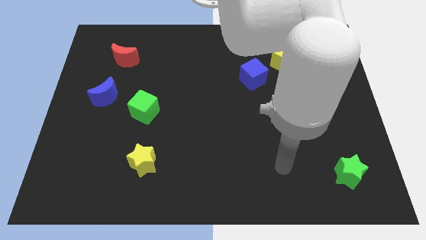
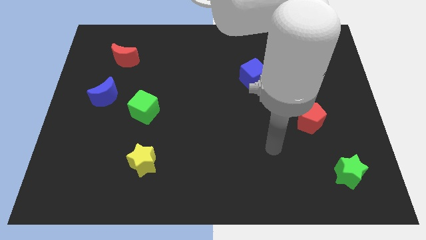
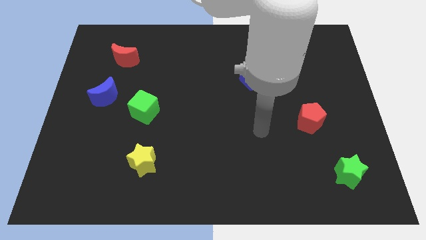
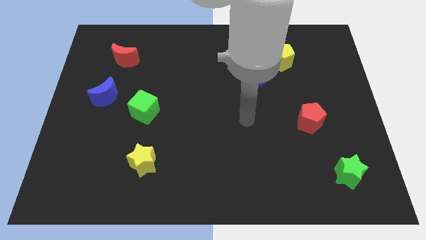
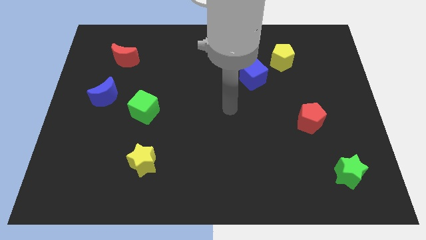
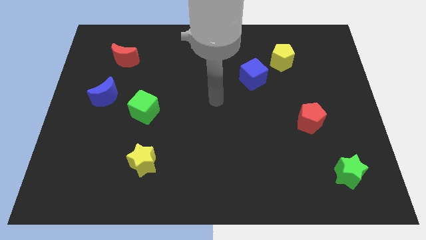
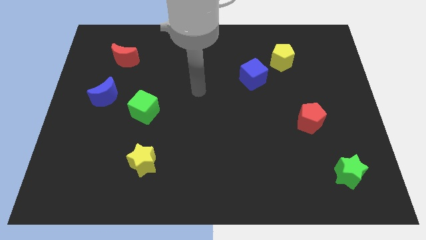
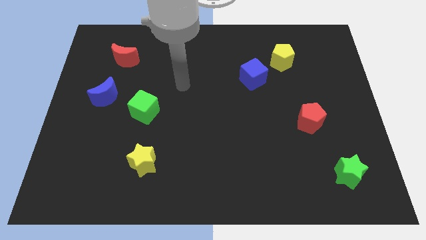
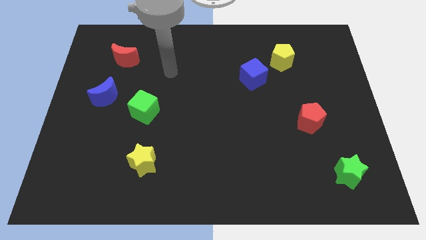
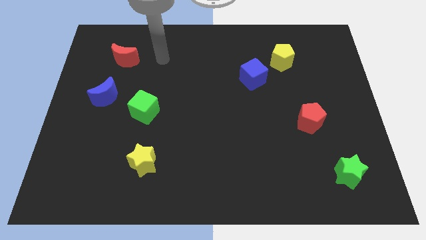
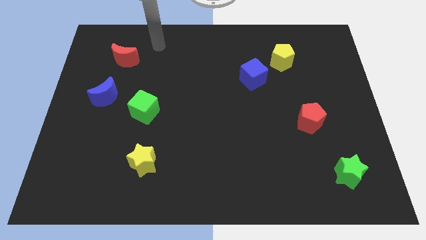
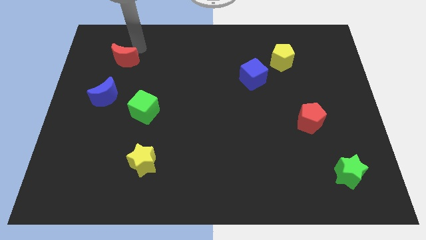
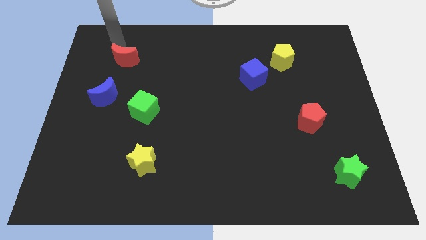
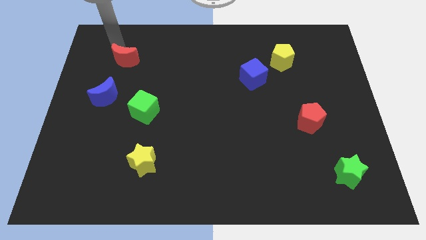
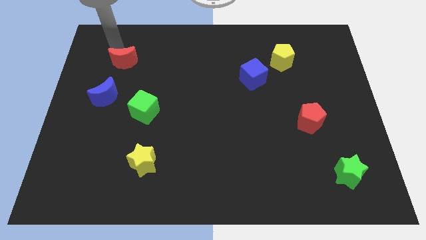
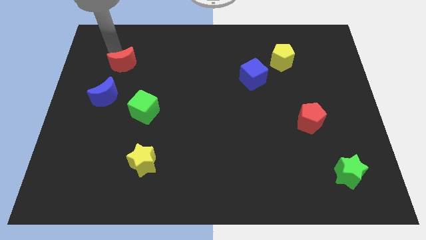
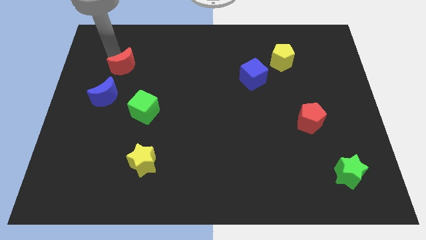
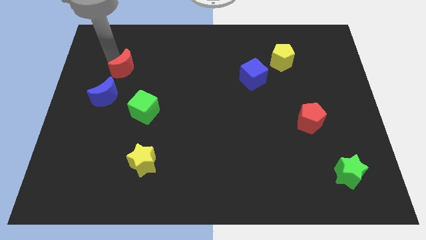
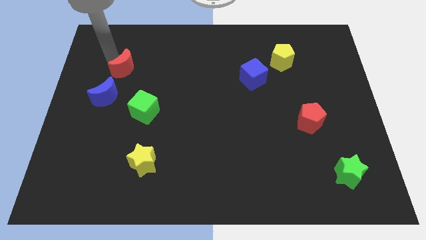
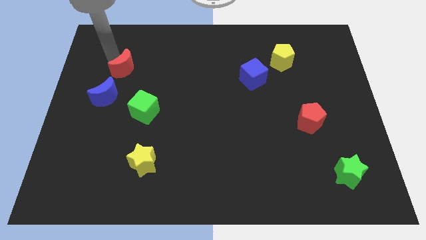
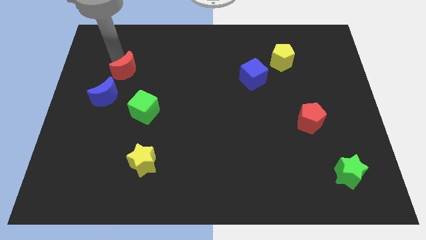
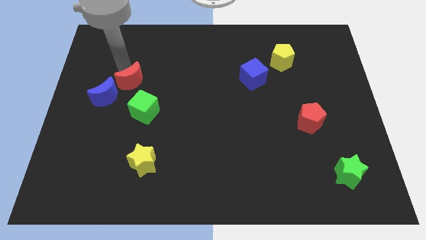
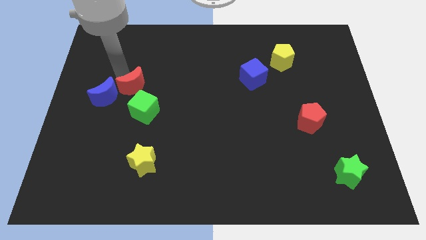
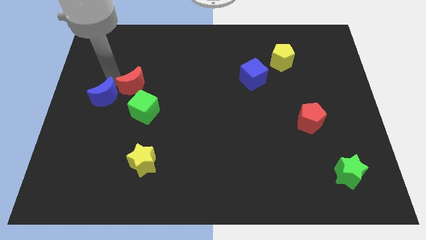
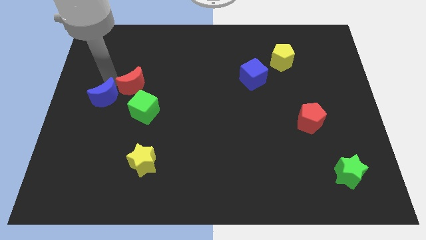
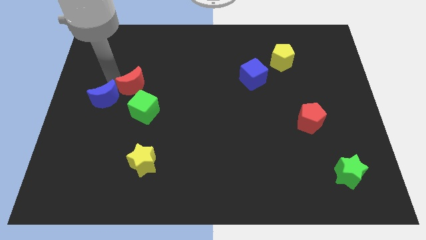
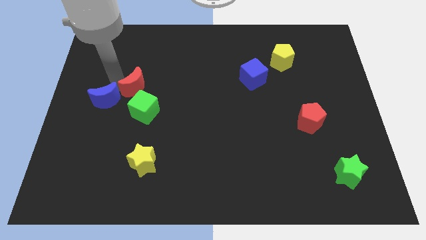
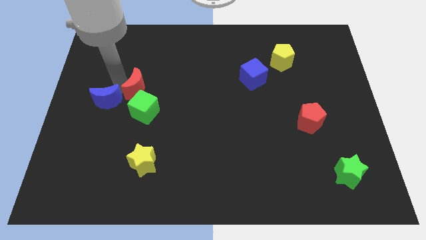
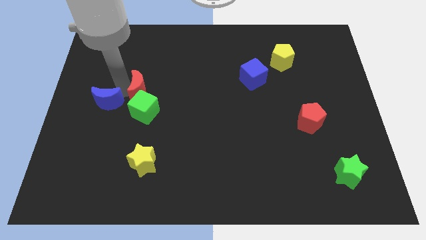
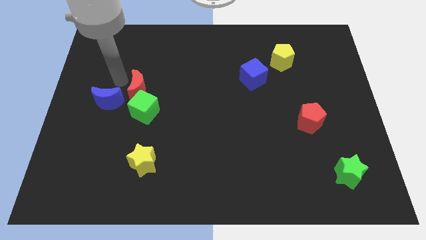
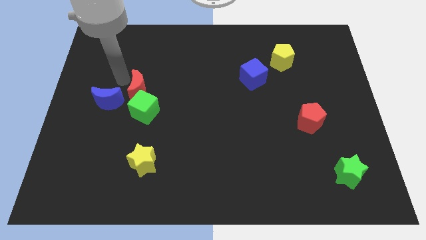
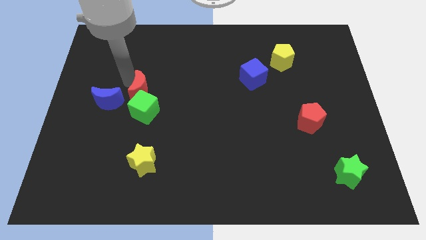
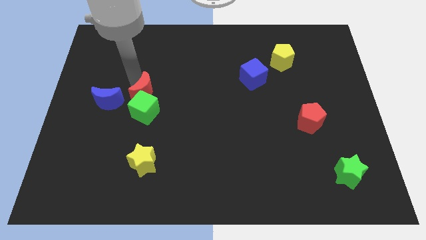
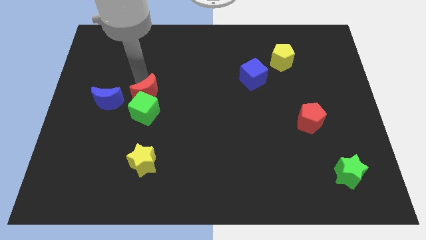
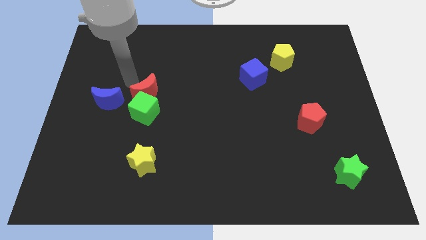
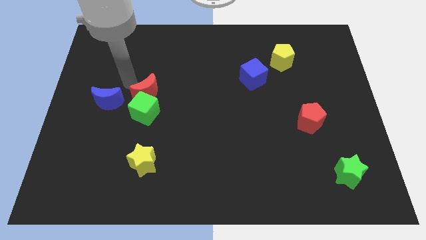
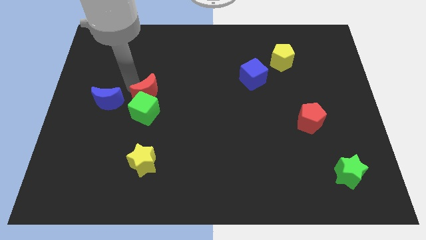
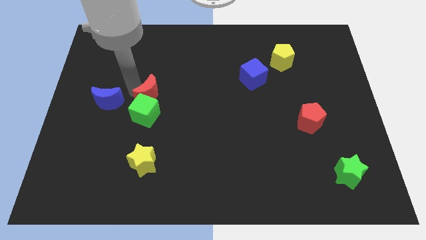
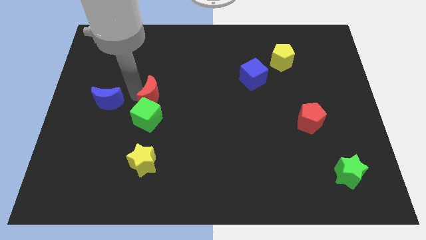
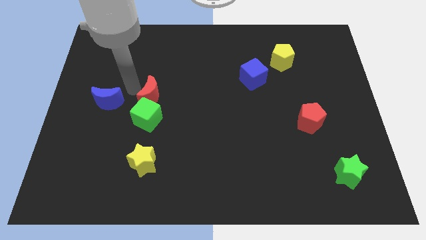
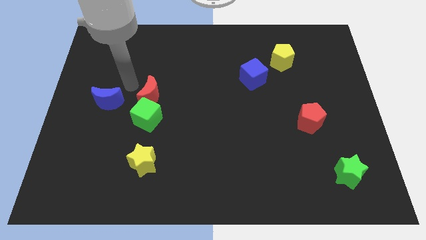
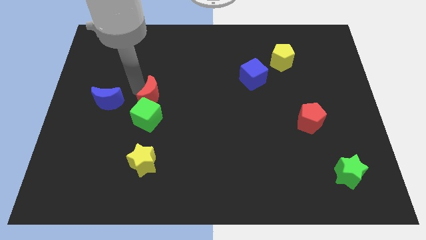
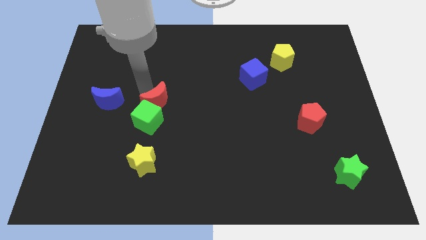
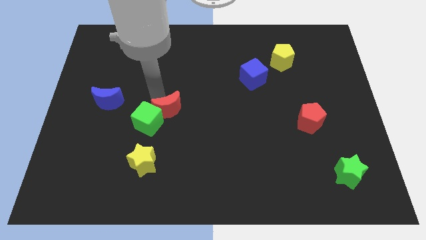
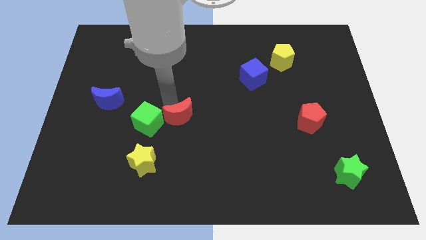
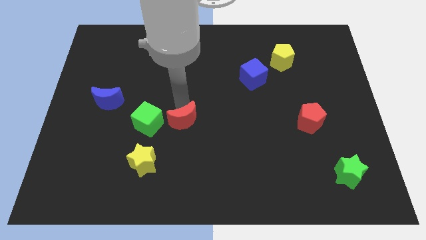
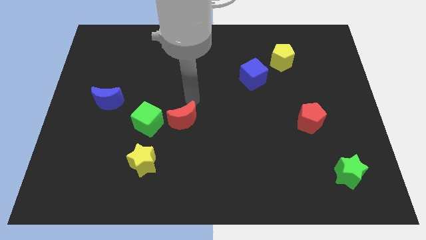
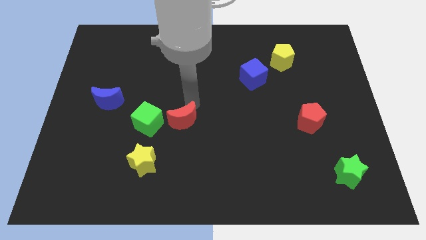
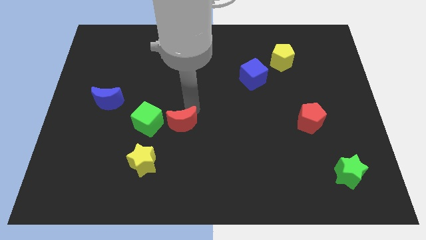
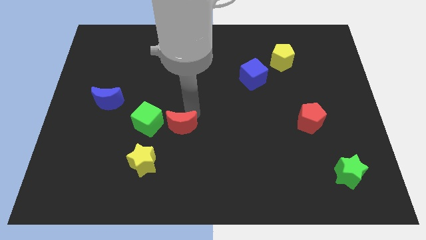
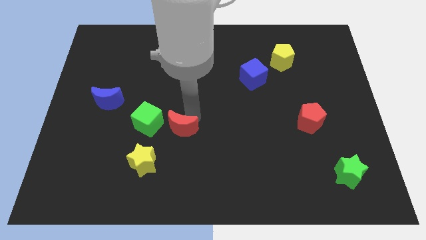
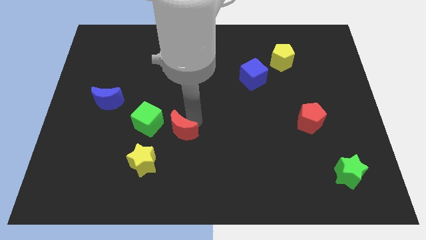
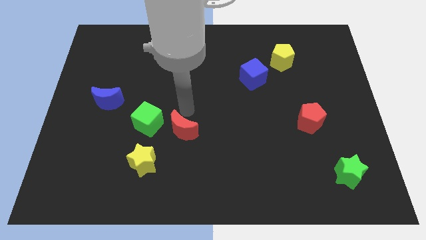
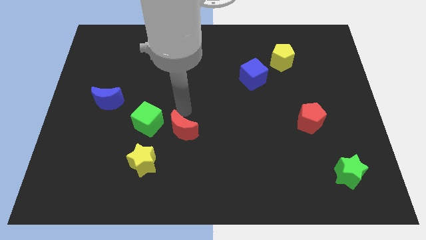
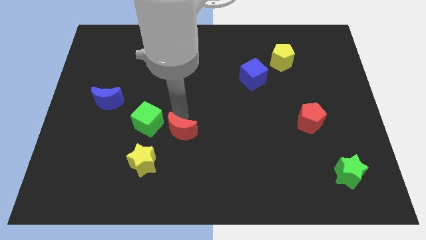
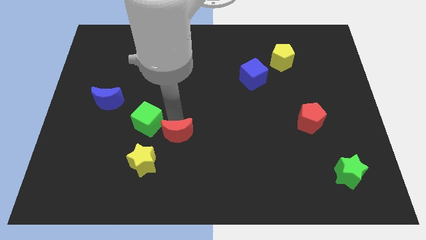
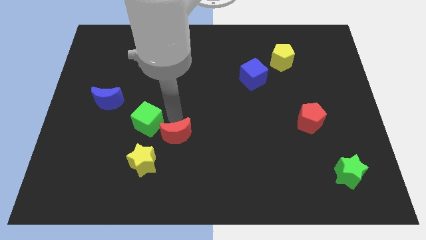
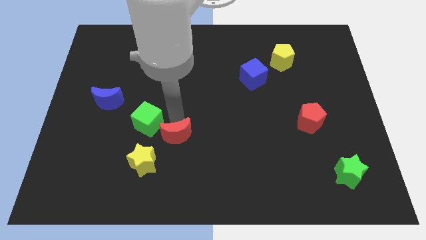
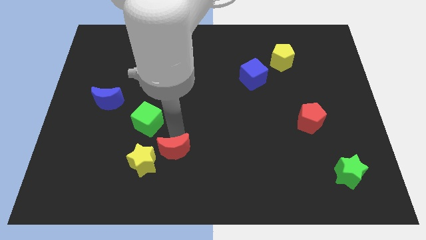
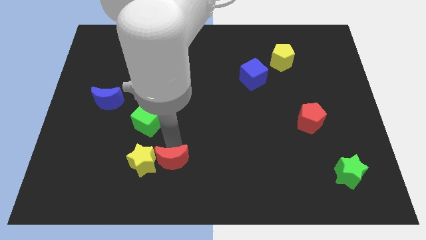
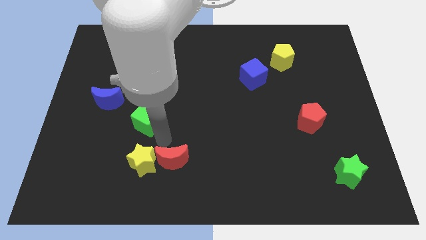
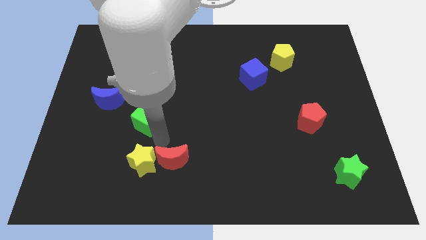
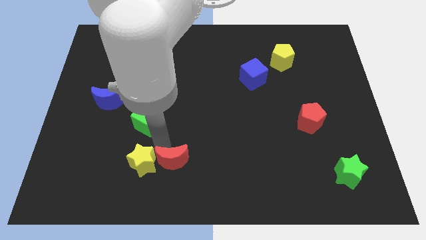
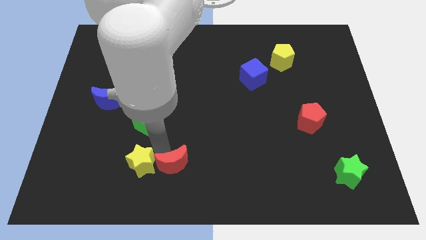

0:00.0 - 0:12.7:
put the red moon to the bottom

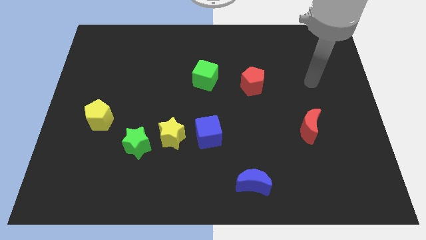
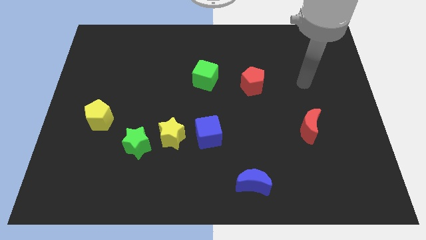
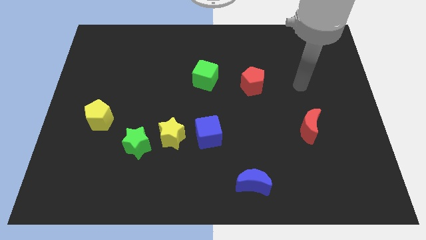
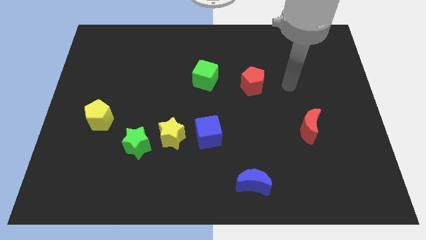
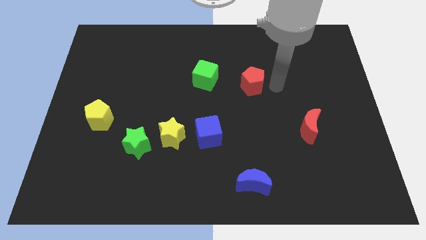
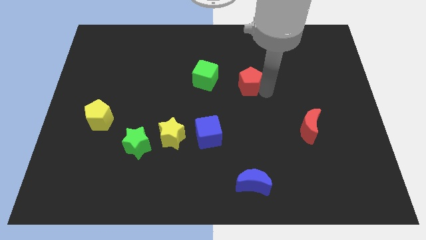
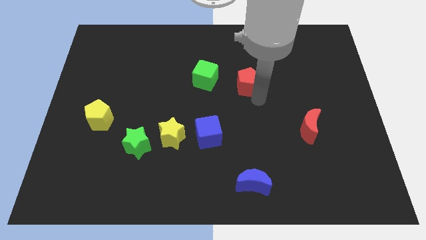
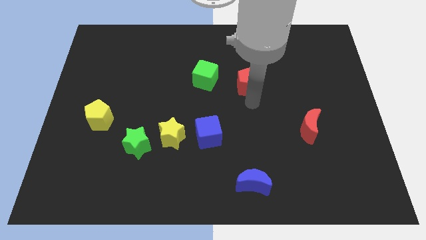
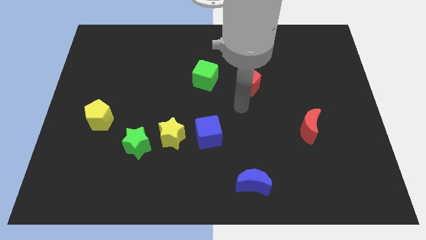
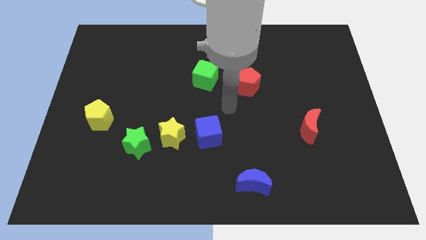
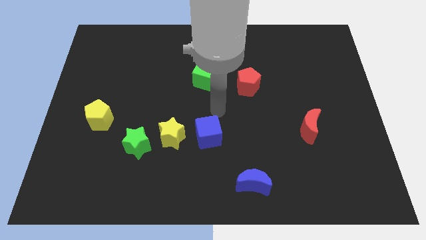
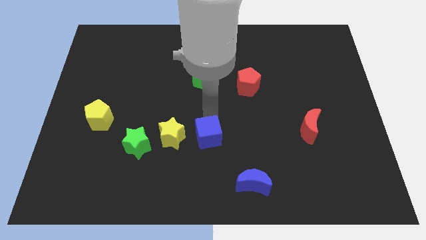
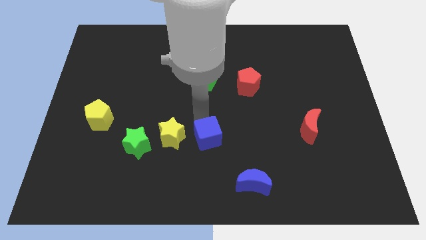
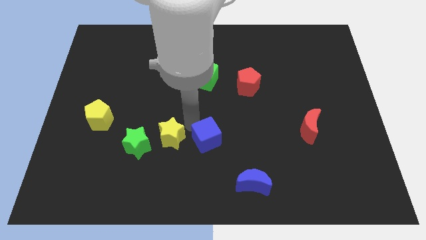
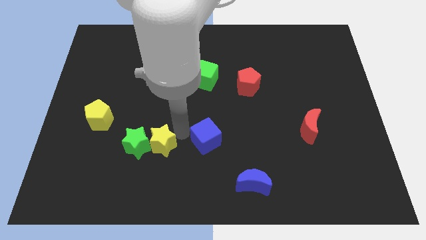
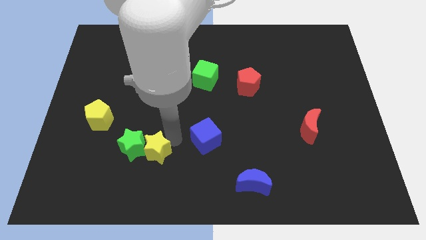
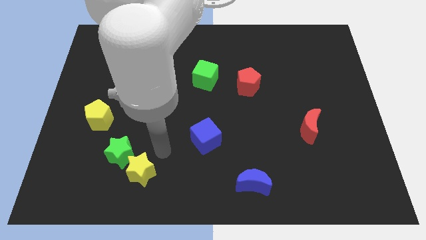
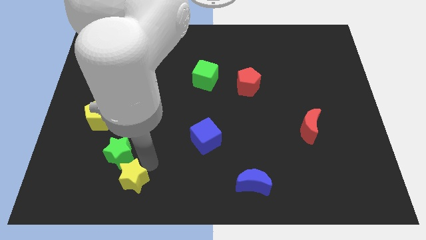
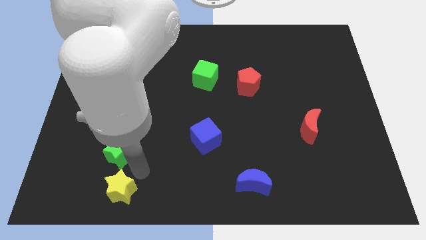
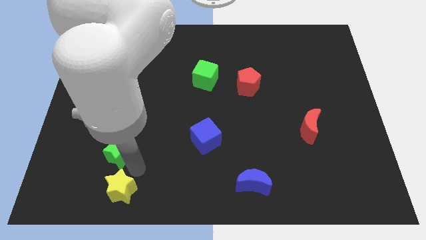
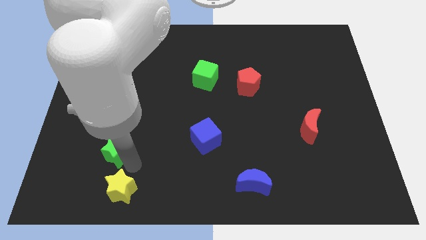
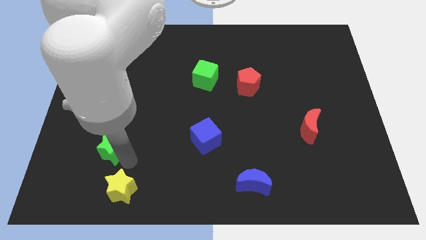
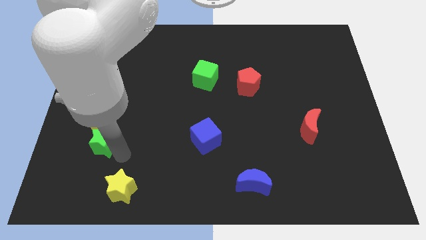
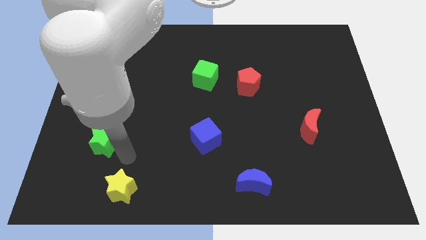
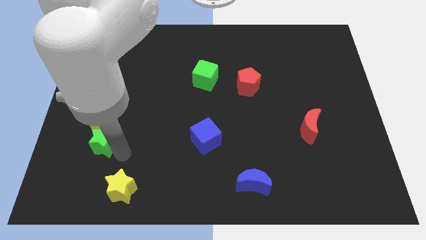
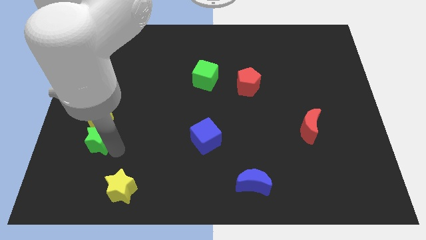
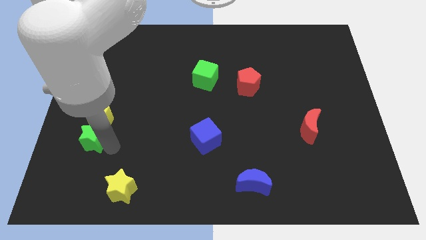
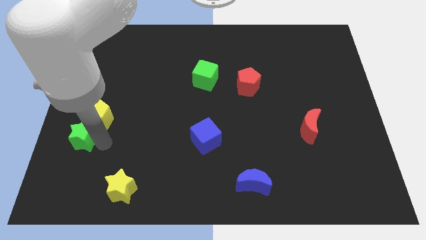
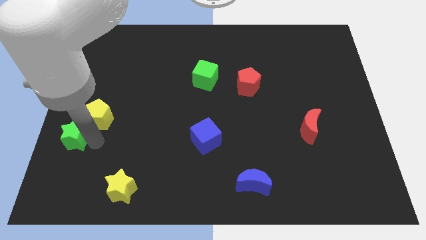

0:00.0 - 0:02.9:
move the green star to the left side of the board
